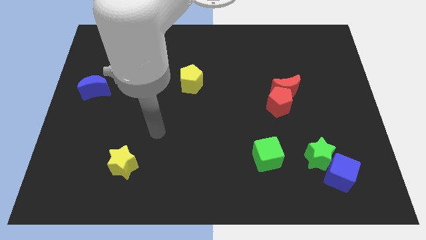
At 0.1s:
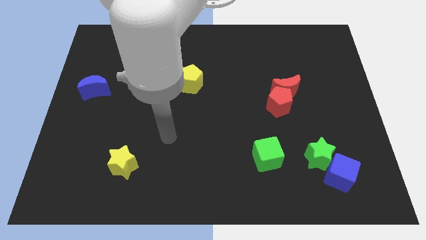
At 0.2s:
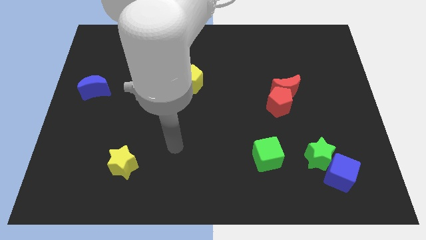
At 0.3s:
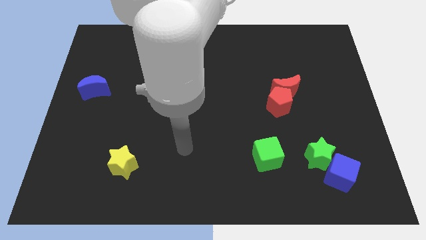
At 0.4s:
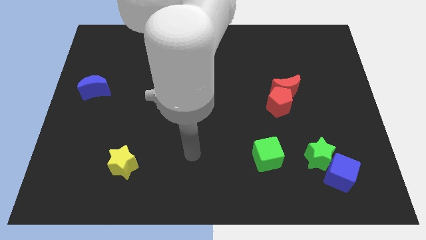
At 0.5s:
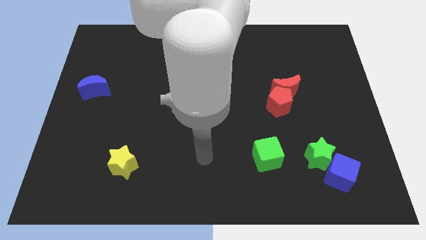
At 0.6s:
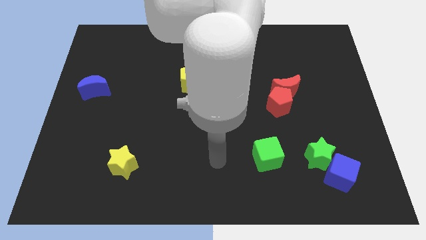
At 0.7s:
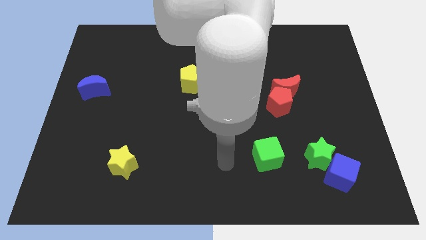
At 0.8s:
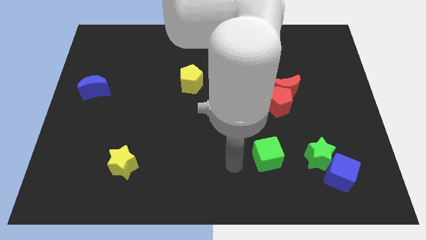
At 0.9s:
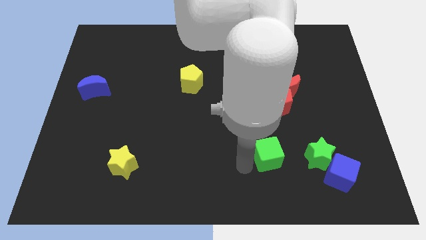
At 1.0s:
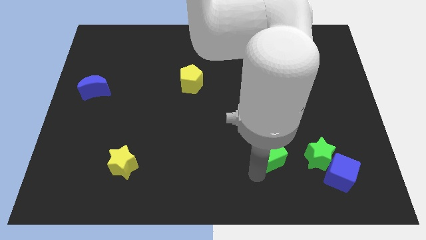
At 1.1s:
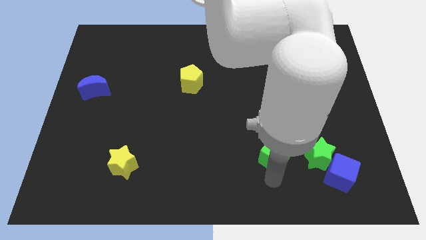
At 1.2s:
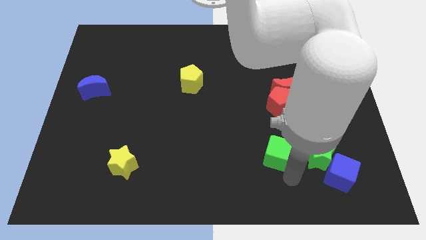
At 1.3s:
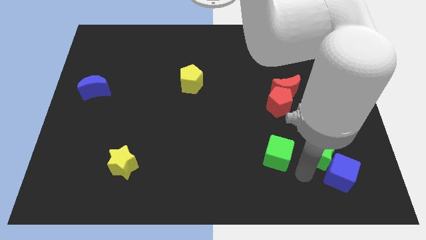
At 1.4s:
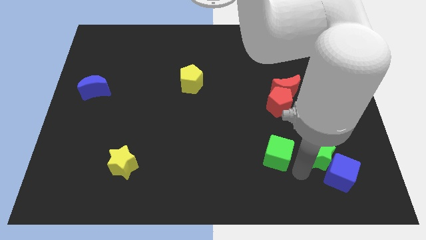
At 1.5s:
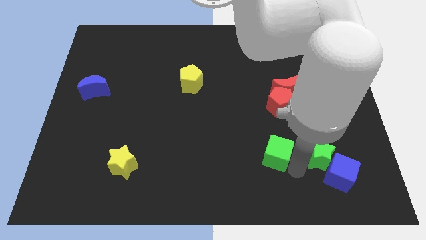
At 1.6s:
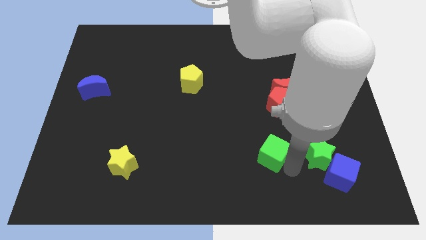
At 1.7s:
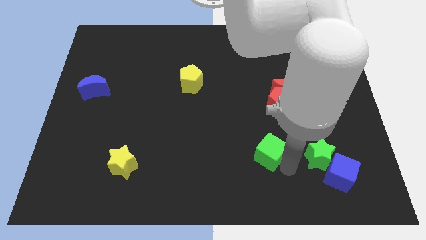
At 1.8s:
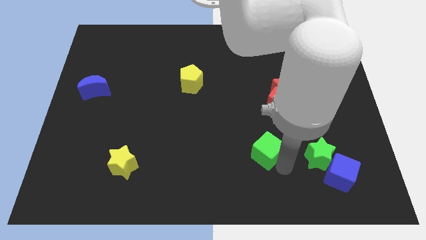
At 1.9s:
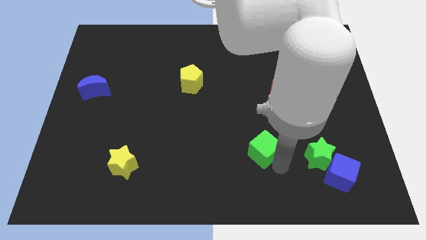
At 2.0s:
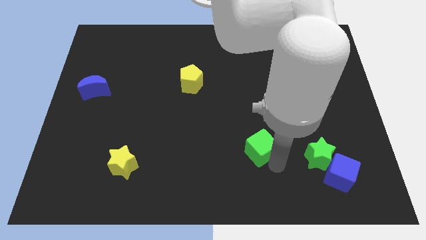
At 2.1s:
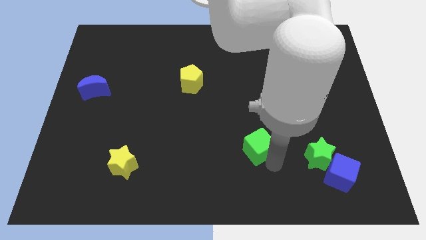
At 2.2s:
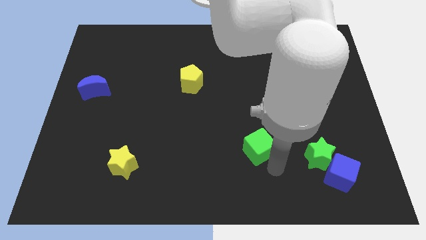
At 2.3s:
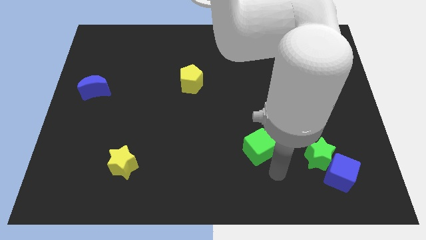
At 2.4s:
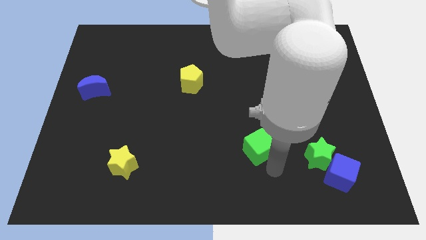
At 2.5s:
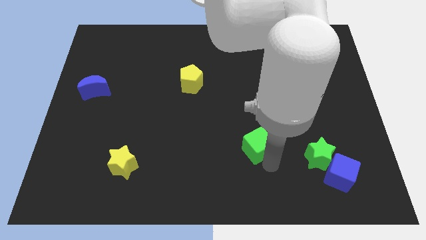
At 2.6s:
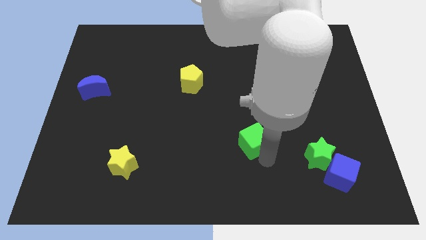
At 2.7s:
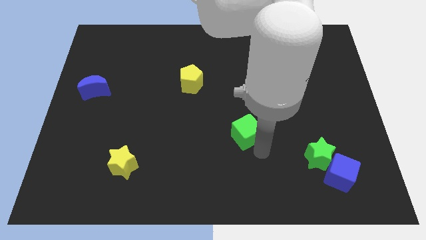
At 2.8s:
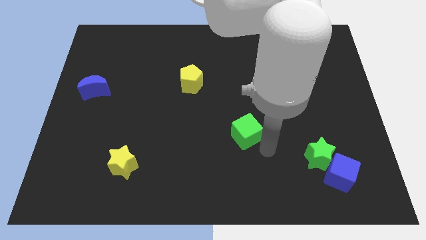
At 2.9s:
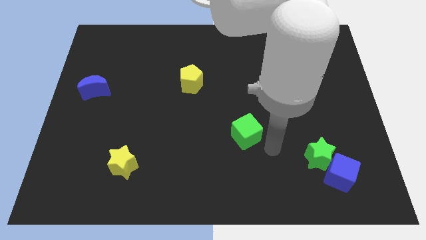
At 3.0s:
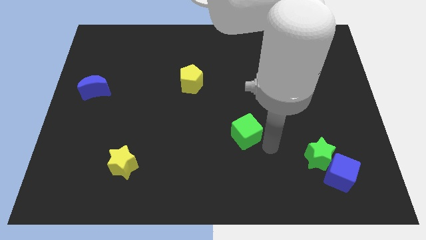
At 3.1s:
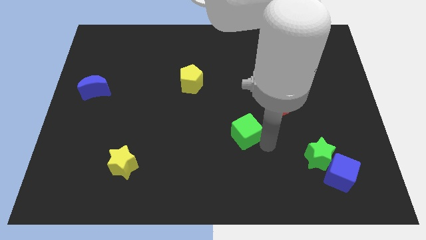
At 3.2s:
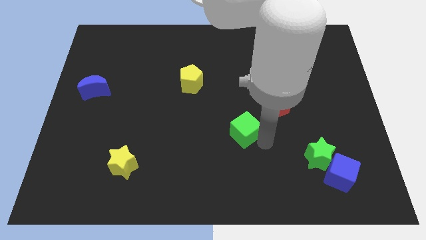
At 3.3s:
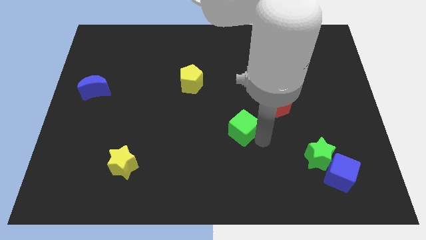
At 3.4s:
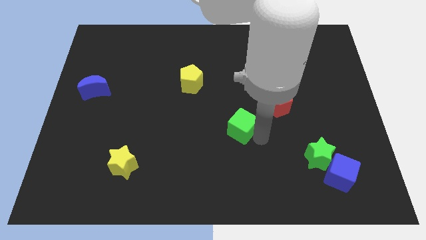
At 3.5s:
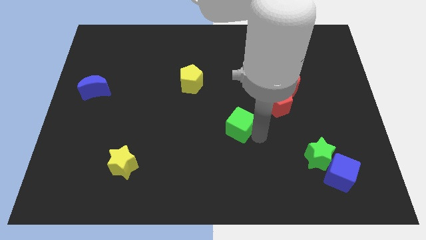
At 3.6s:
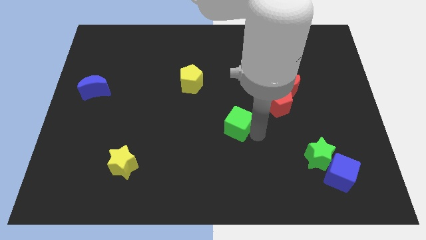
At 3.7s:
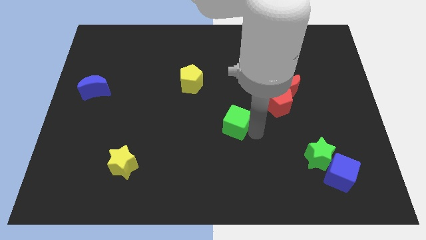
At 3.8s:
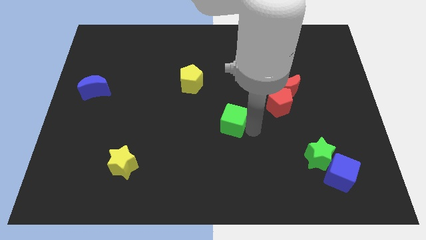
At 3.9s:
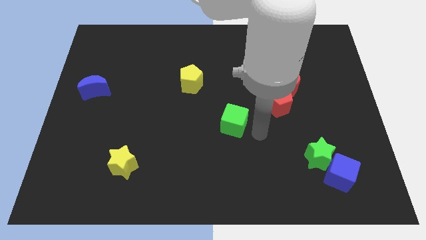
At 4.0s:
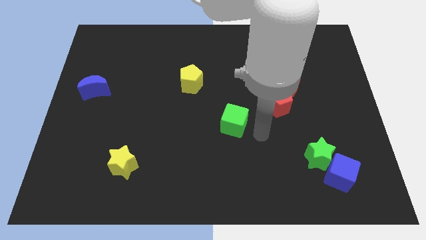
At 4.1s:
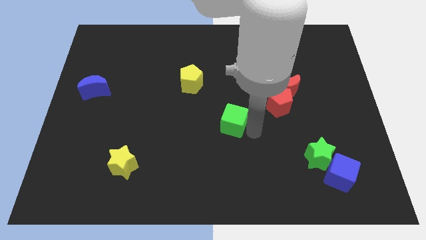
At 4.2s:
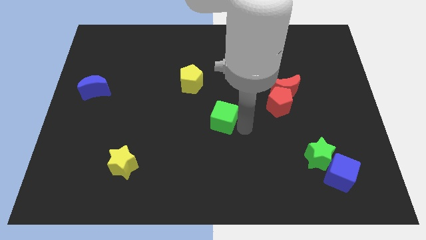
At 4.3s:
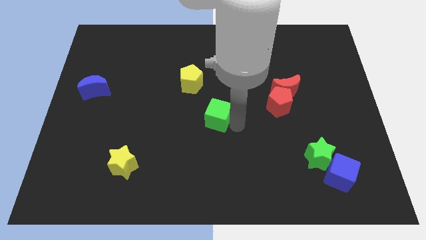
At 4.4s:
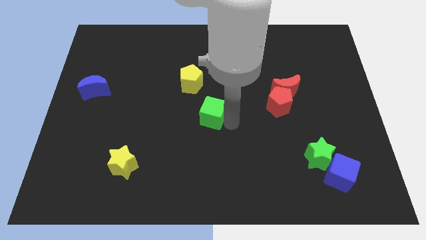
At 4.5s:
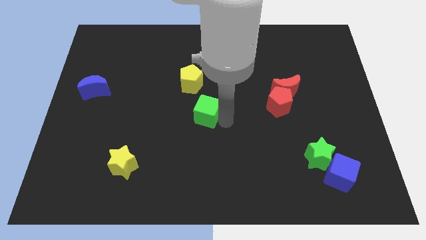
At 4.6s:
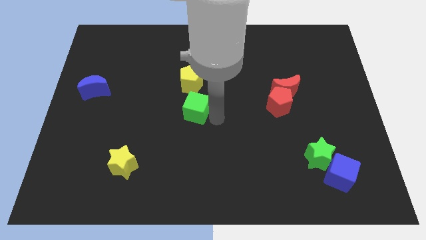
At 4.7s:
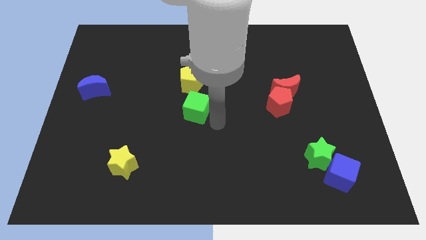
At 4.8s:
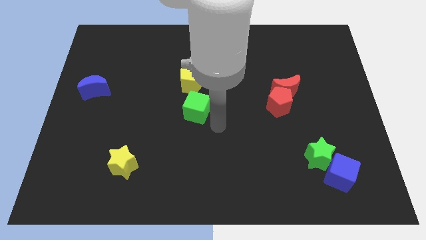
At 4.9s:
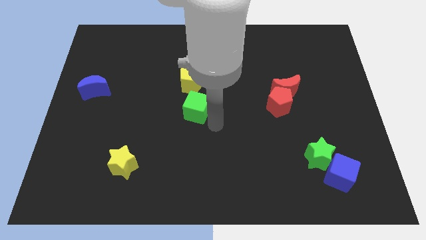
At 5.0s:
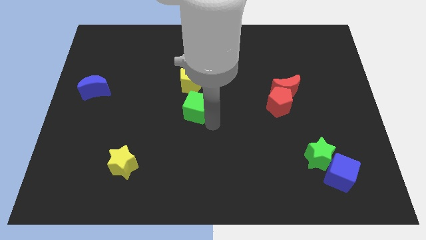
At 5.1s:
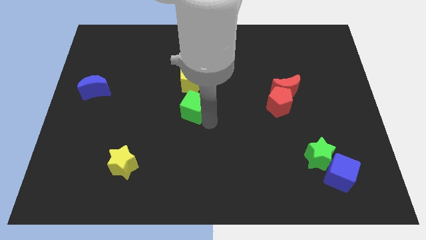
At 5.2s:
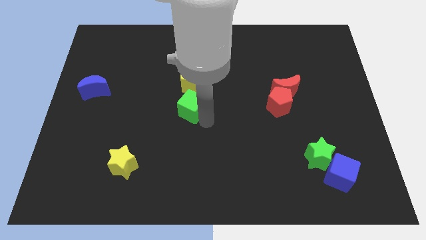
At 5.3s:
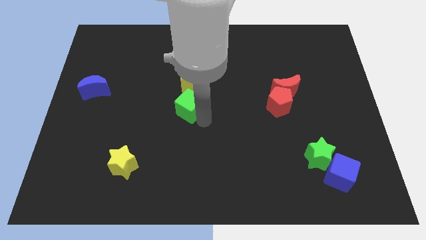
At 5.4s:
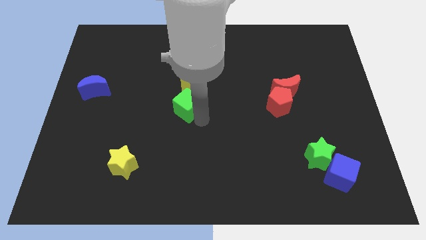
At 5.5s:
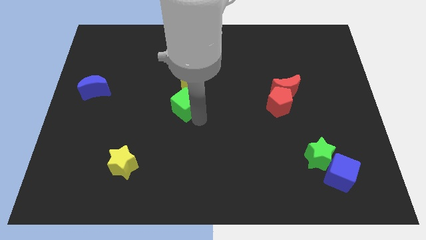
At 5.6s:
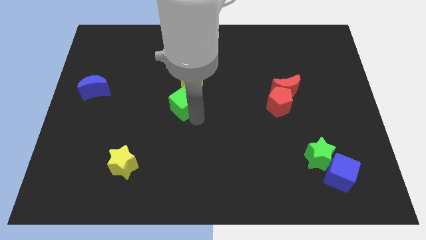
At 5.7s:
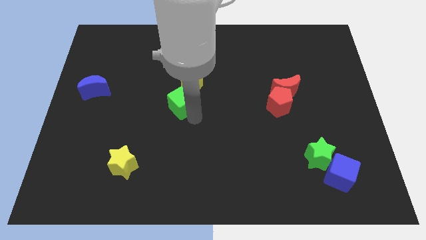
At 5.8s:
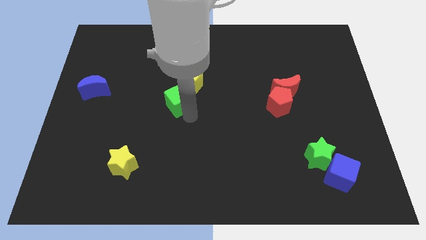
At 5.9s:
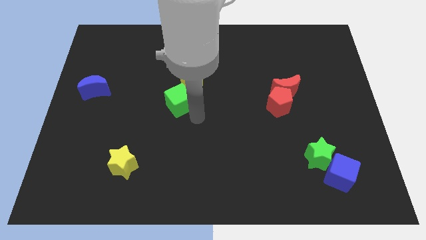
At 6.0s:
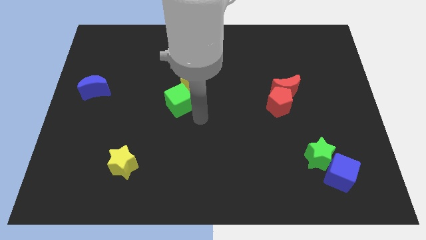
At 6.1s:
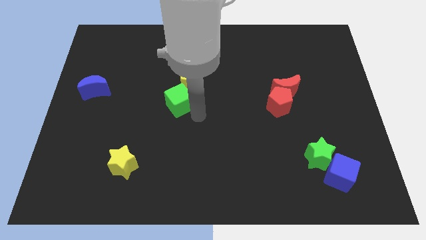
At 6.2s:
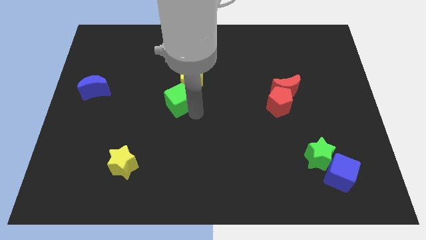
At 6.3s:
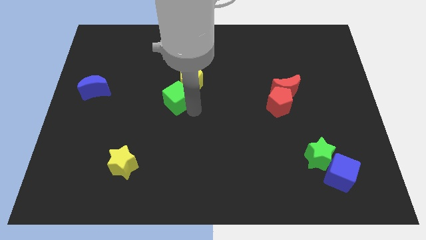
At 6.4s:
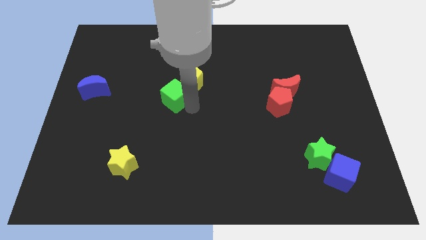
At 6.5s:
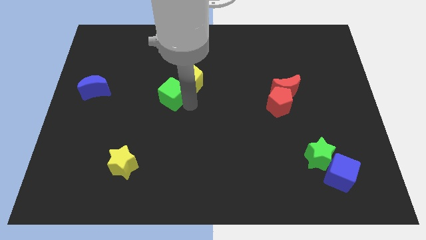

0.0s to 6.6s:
slide the green cube to the left side of the yellow pentagon

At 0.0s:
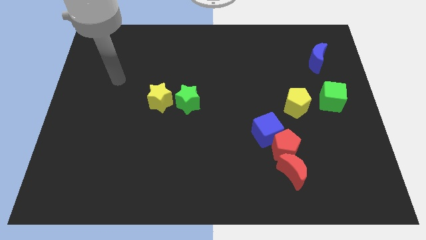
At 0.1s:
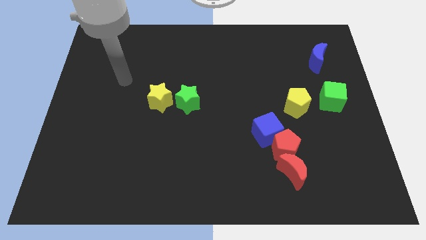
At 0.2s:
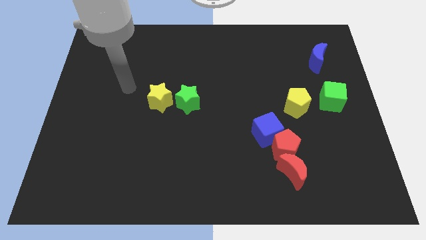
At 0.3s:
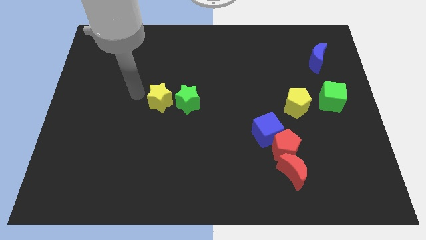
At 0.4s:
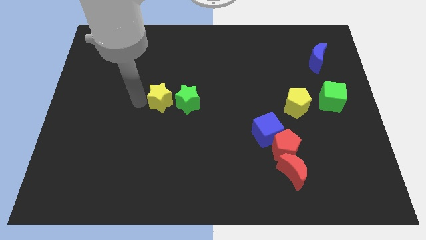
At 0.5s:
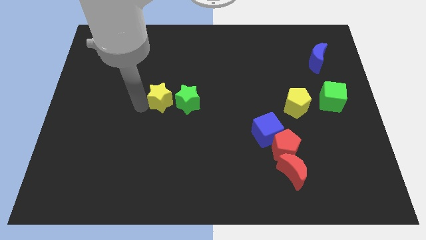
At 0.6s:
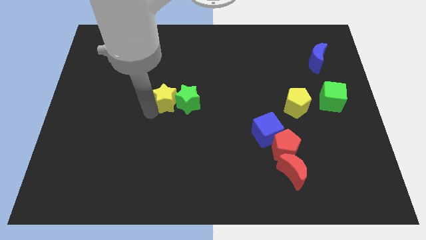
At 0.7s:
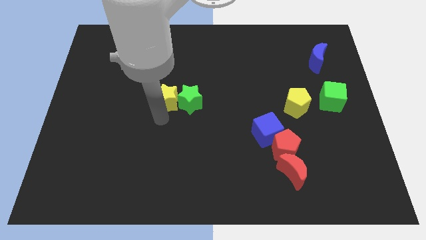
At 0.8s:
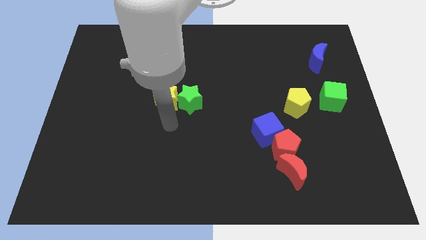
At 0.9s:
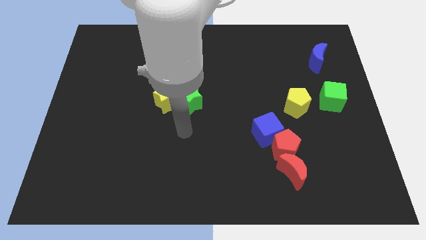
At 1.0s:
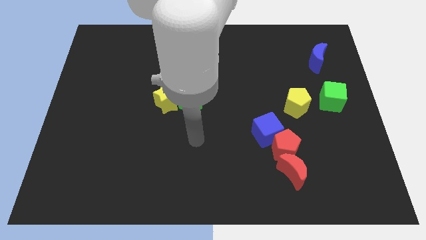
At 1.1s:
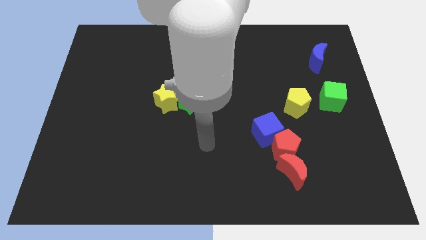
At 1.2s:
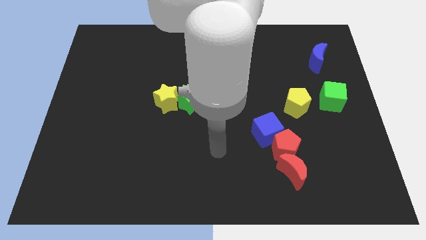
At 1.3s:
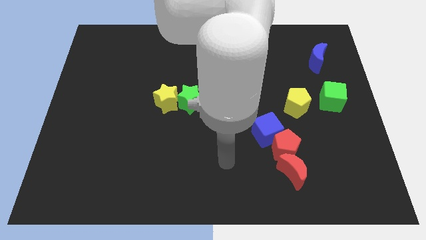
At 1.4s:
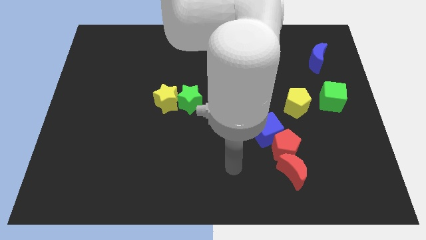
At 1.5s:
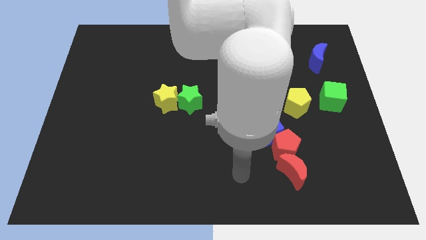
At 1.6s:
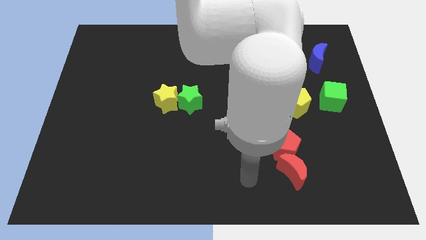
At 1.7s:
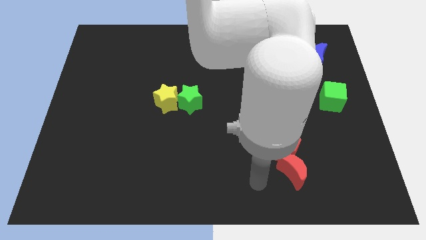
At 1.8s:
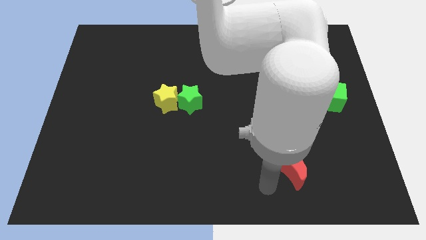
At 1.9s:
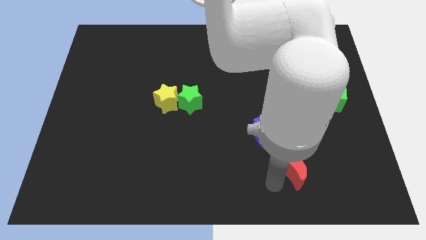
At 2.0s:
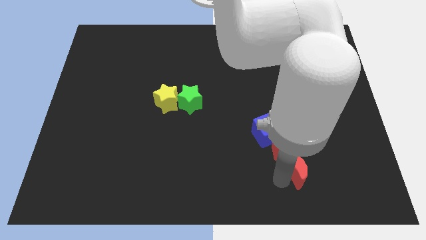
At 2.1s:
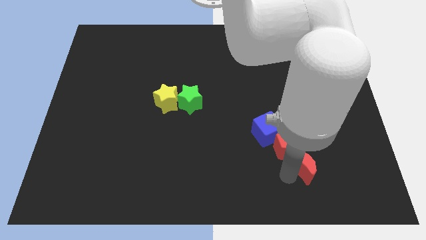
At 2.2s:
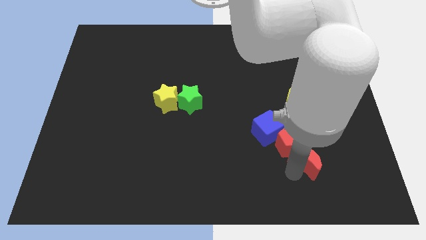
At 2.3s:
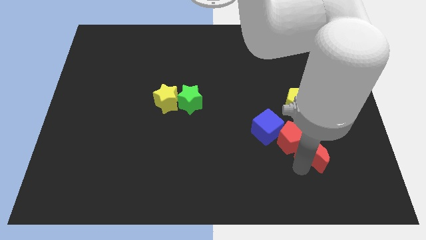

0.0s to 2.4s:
put the red moon to the right of the red pentagon
